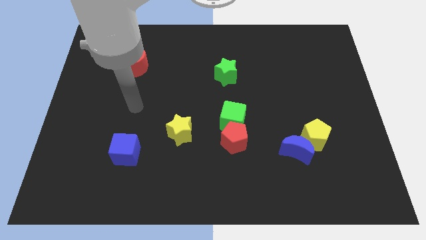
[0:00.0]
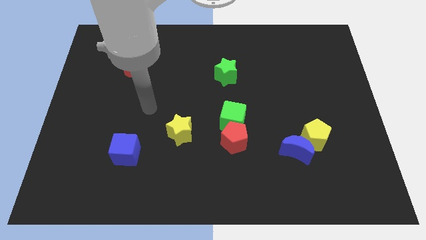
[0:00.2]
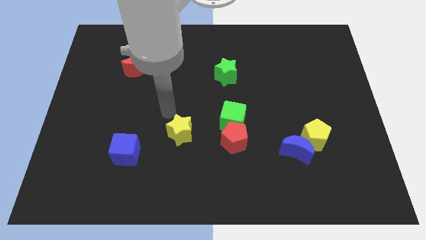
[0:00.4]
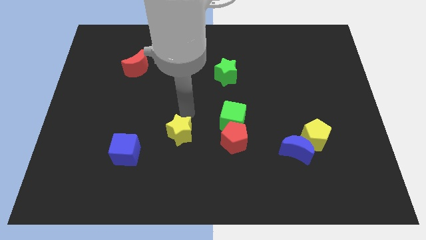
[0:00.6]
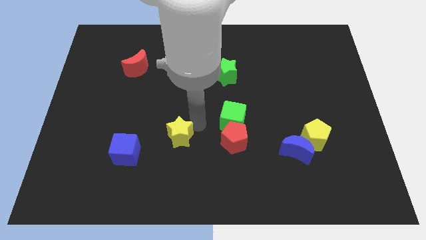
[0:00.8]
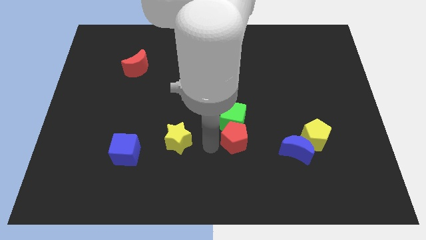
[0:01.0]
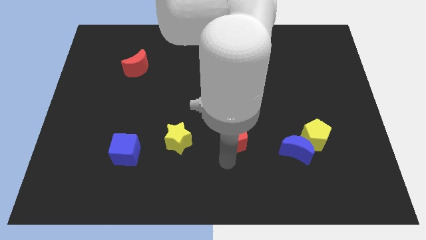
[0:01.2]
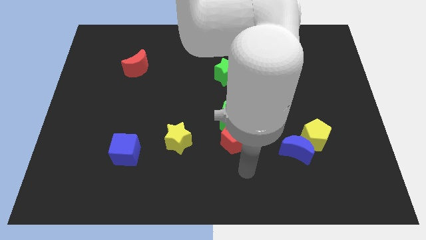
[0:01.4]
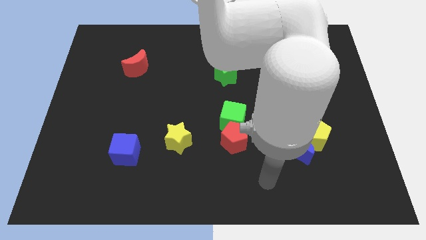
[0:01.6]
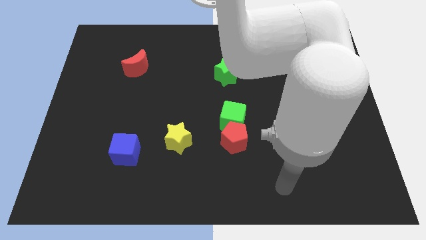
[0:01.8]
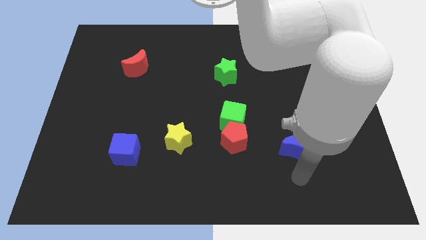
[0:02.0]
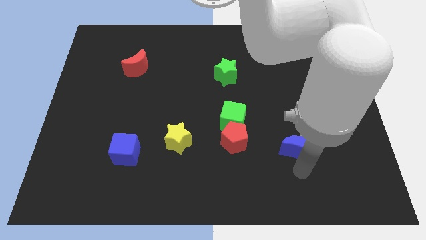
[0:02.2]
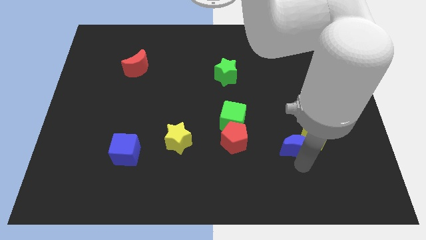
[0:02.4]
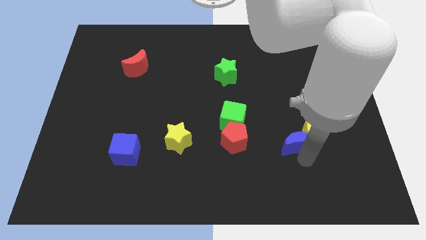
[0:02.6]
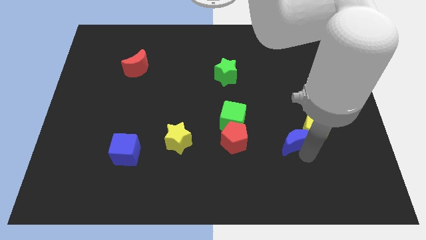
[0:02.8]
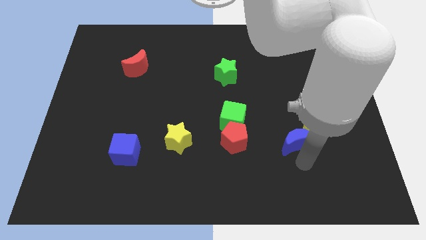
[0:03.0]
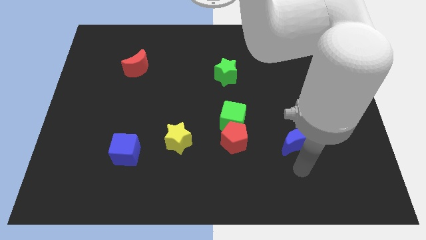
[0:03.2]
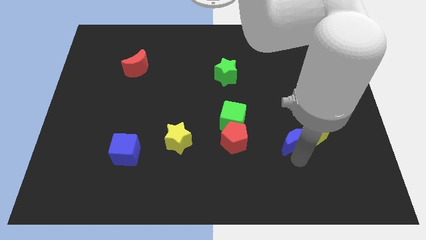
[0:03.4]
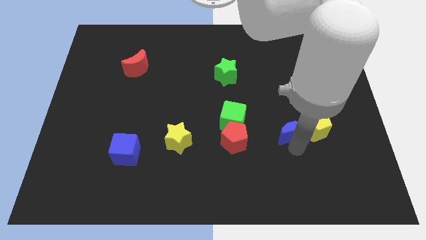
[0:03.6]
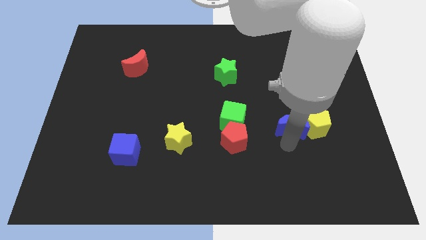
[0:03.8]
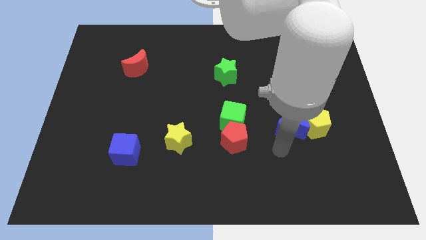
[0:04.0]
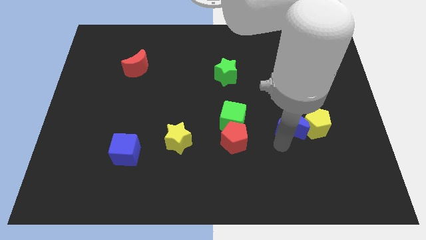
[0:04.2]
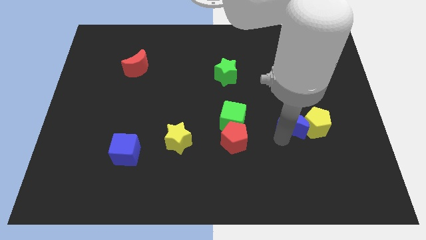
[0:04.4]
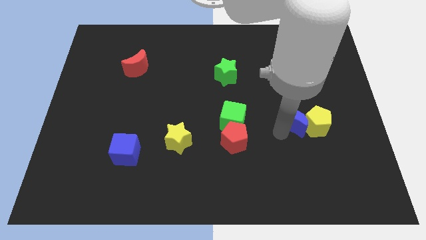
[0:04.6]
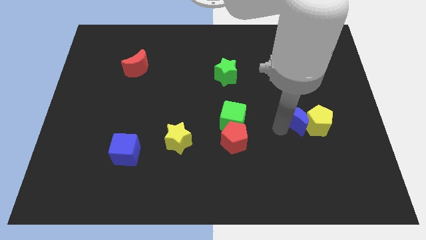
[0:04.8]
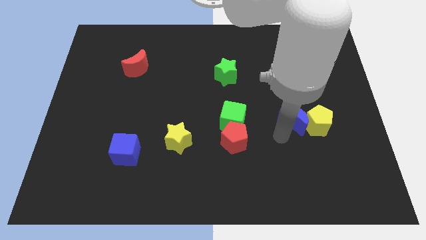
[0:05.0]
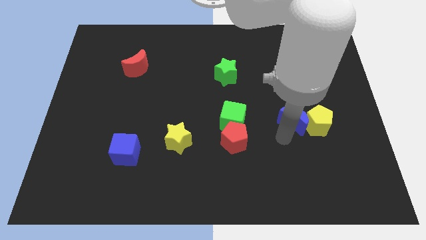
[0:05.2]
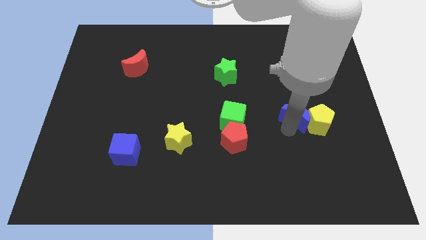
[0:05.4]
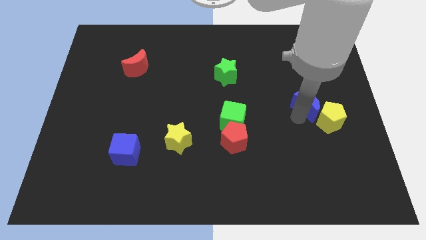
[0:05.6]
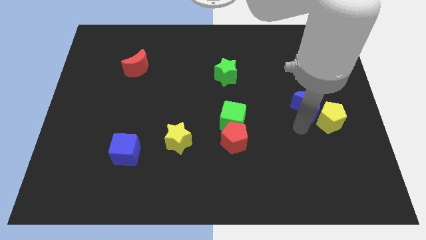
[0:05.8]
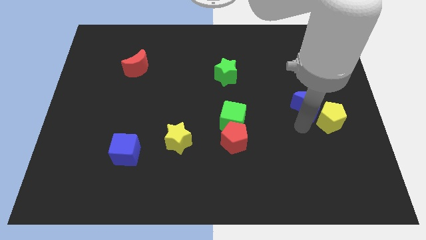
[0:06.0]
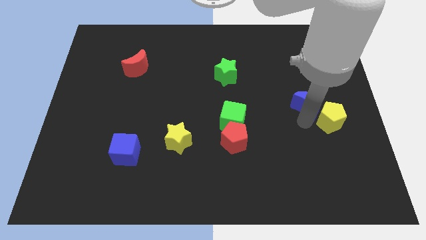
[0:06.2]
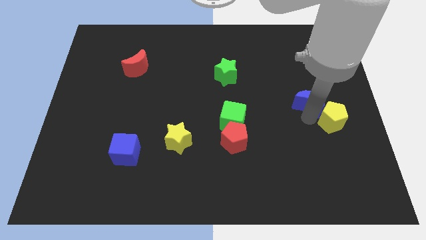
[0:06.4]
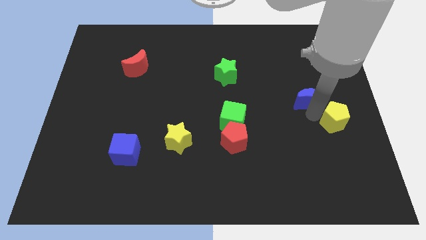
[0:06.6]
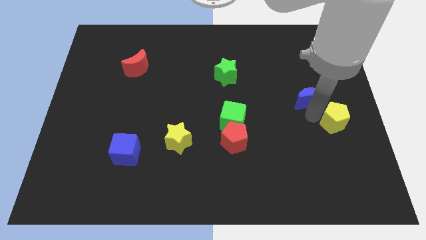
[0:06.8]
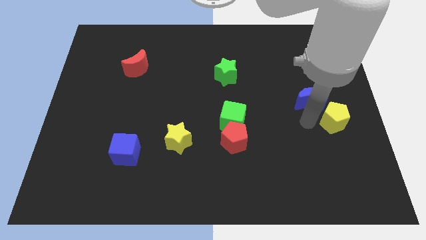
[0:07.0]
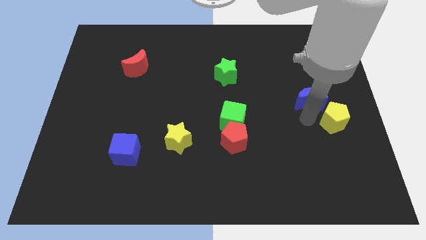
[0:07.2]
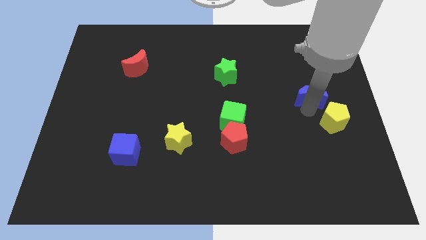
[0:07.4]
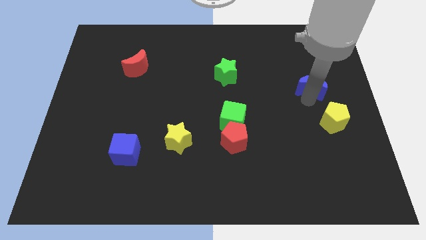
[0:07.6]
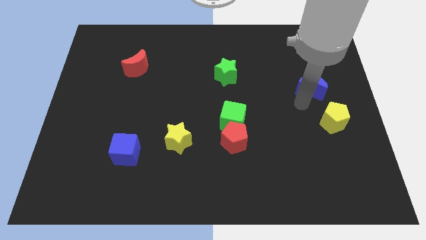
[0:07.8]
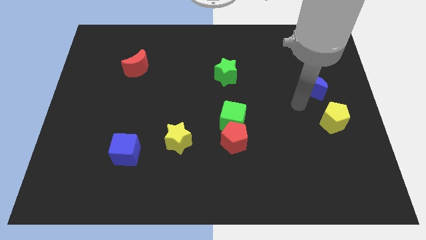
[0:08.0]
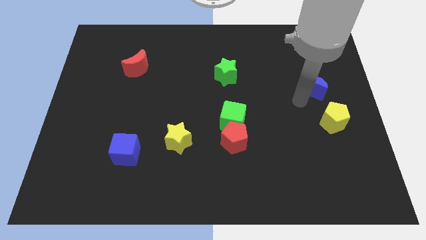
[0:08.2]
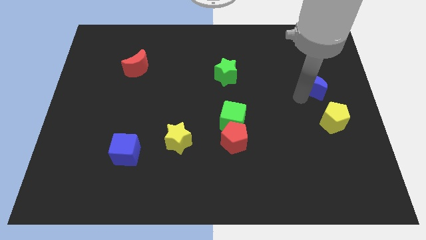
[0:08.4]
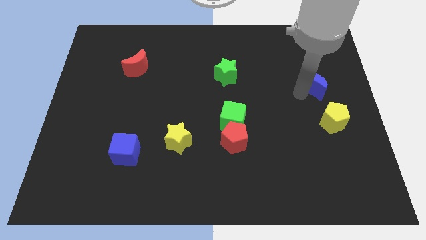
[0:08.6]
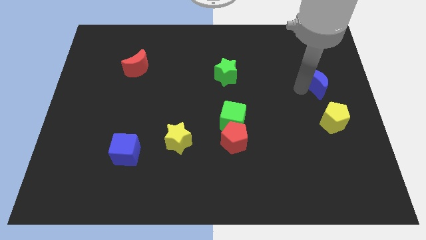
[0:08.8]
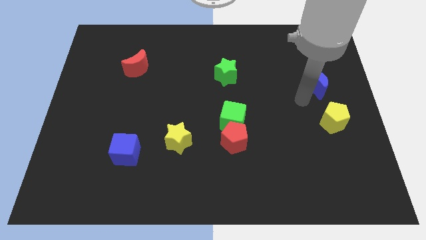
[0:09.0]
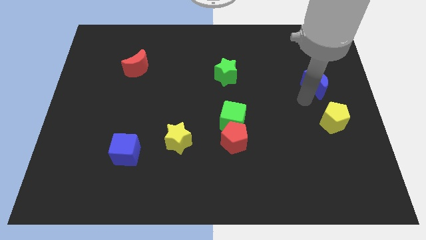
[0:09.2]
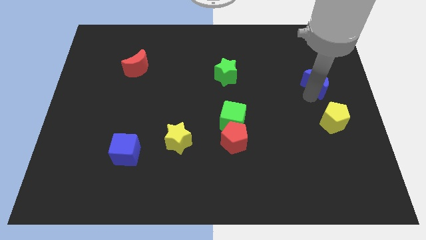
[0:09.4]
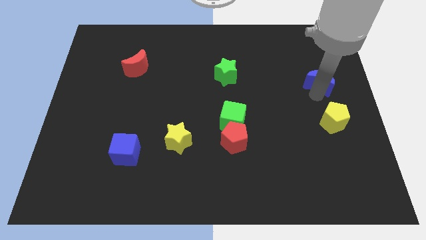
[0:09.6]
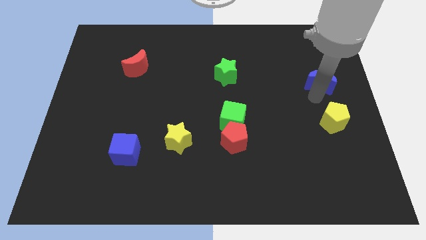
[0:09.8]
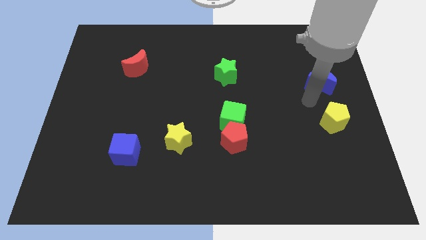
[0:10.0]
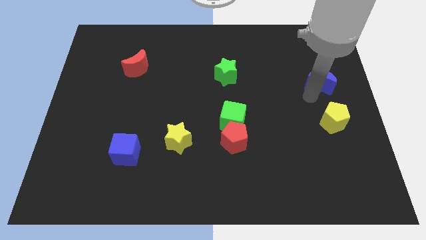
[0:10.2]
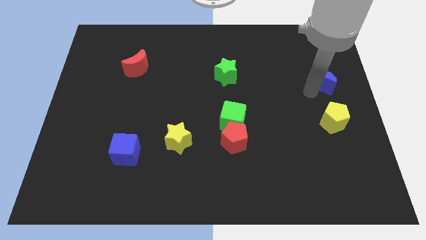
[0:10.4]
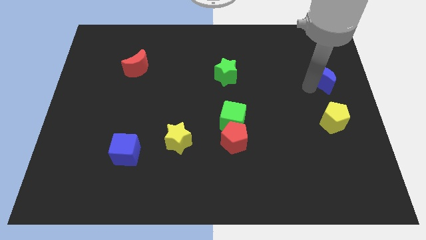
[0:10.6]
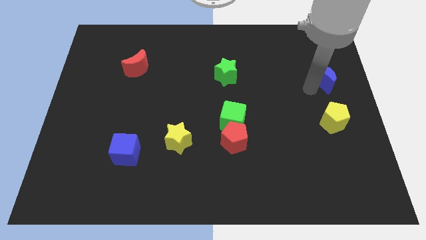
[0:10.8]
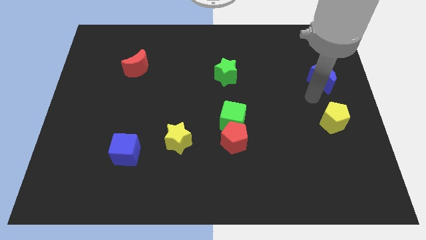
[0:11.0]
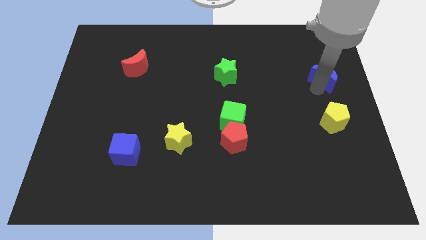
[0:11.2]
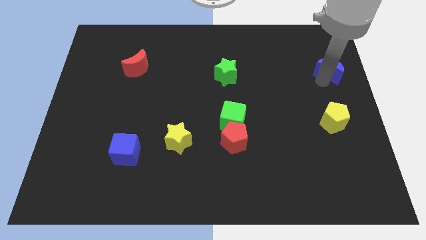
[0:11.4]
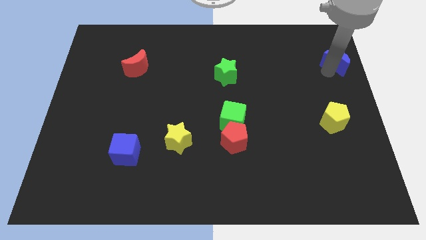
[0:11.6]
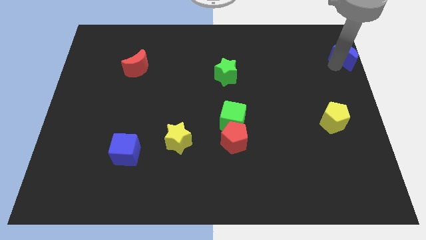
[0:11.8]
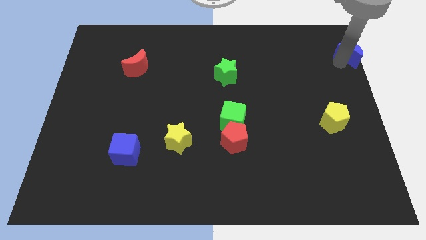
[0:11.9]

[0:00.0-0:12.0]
put the blue moon to the upper right corner
